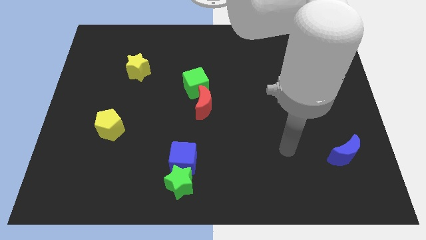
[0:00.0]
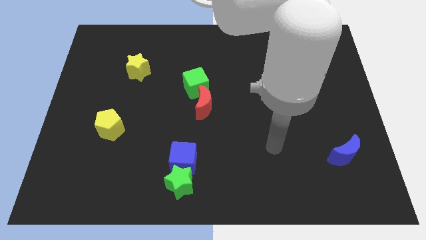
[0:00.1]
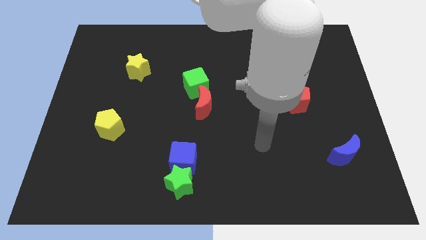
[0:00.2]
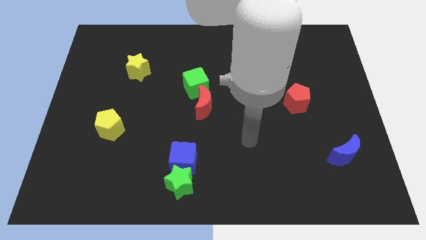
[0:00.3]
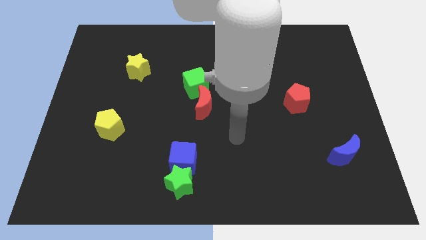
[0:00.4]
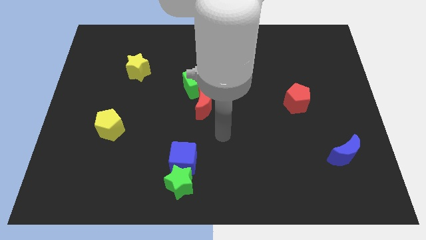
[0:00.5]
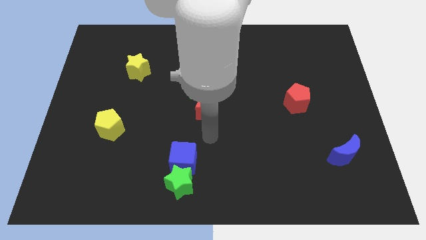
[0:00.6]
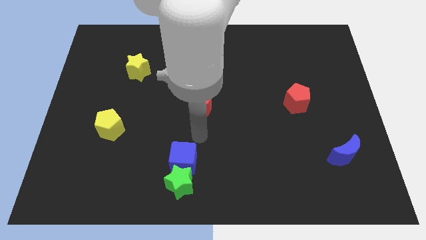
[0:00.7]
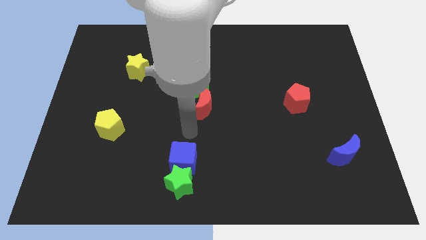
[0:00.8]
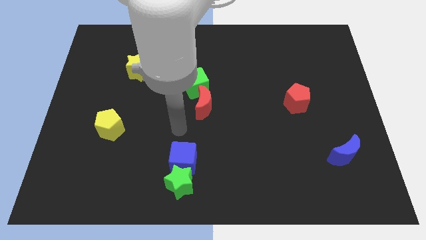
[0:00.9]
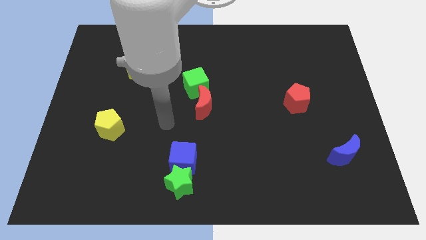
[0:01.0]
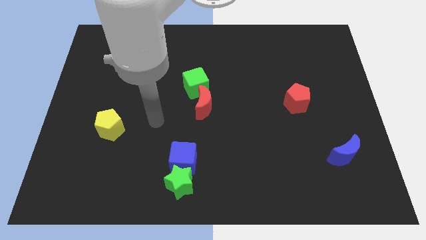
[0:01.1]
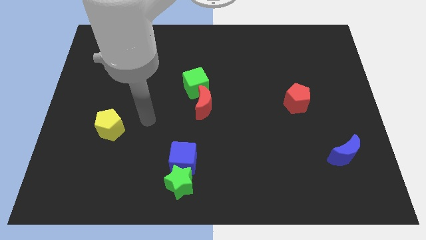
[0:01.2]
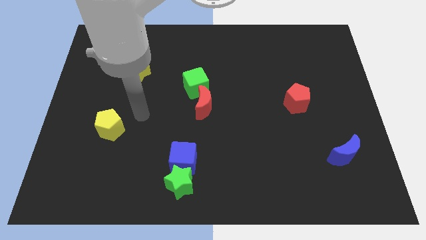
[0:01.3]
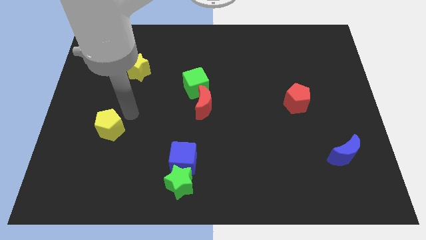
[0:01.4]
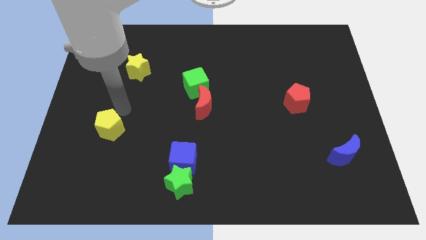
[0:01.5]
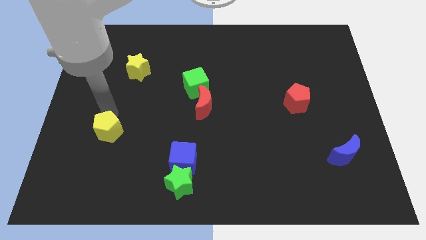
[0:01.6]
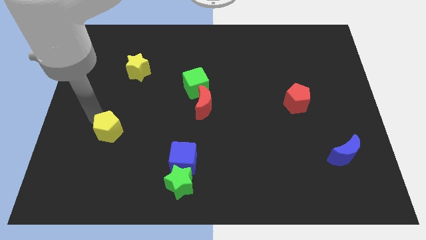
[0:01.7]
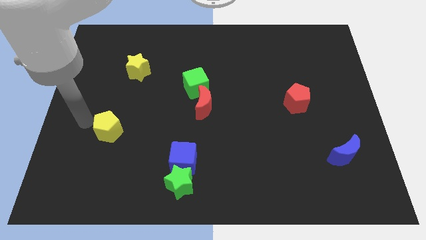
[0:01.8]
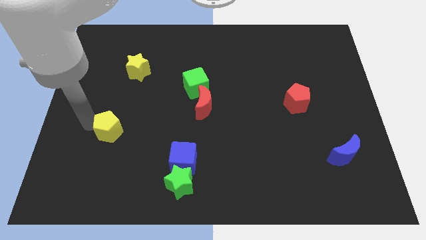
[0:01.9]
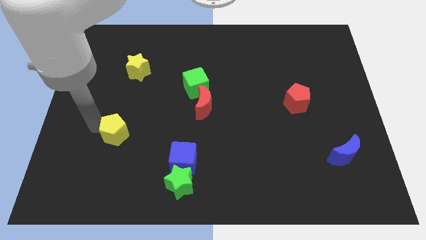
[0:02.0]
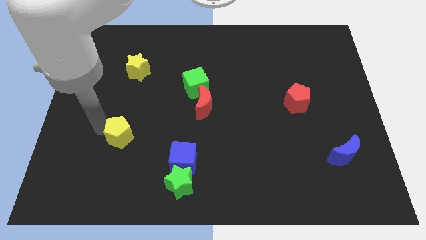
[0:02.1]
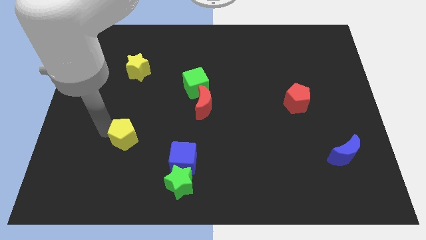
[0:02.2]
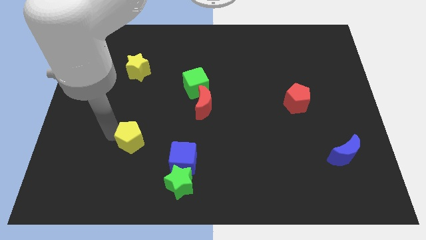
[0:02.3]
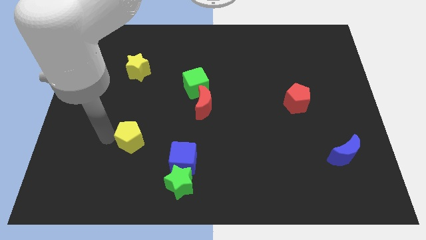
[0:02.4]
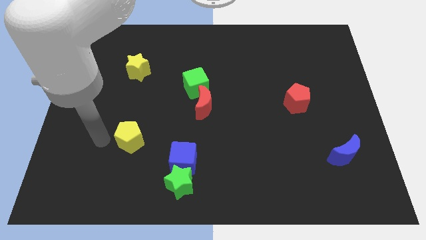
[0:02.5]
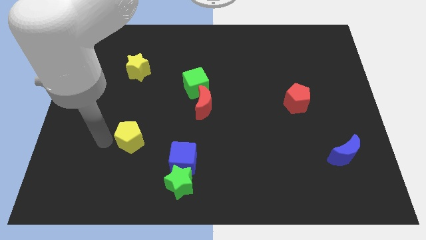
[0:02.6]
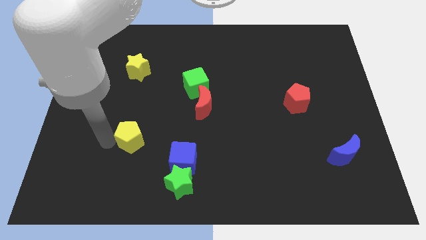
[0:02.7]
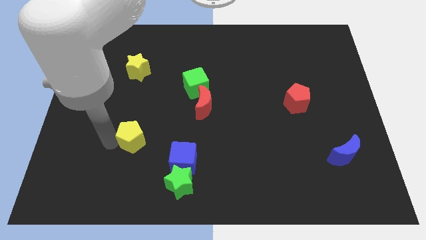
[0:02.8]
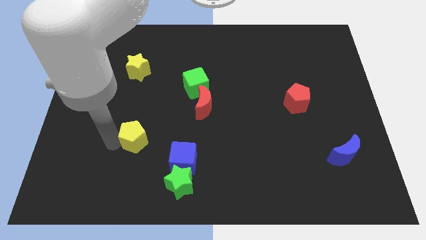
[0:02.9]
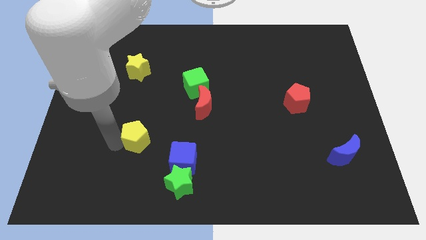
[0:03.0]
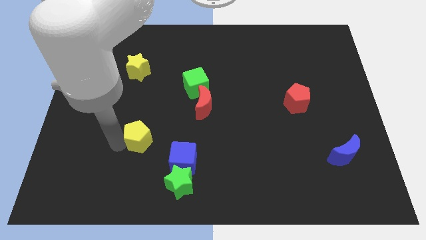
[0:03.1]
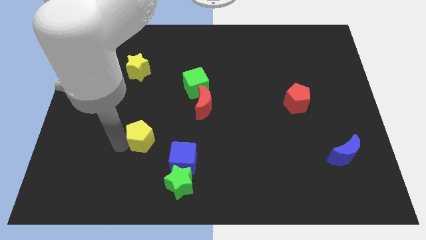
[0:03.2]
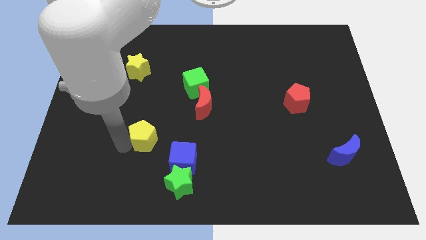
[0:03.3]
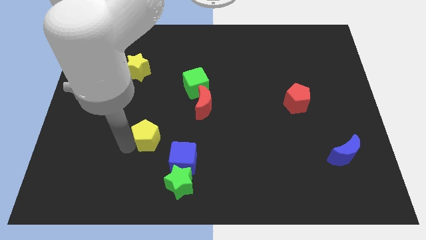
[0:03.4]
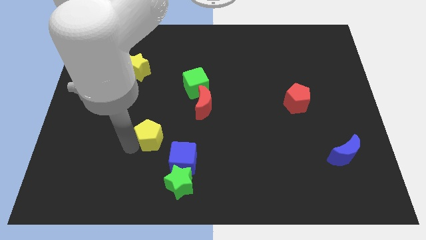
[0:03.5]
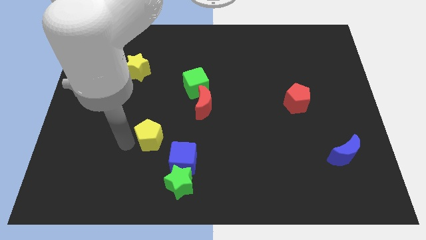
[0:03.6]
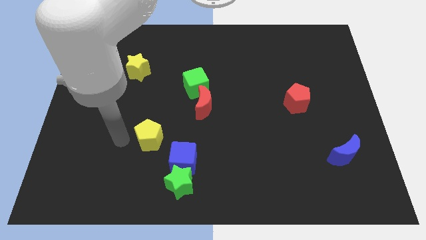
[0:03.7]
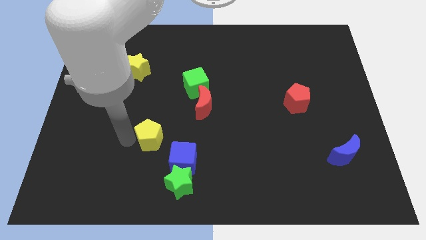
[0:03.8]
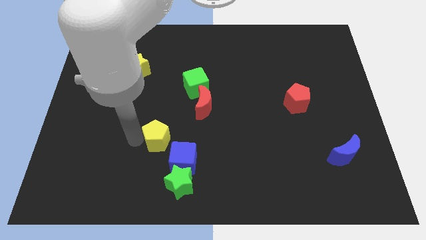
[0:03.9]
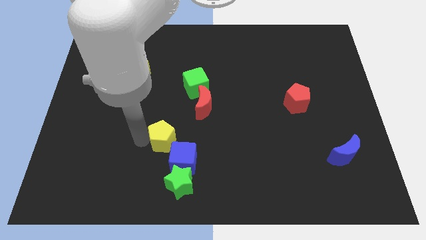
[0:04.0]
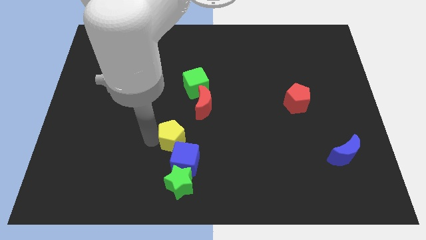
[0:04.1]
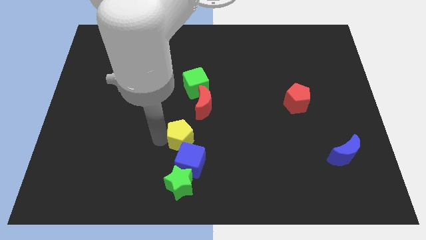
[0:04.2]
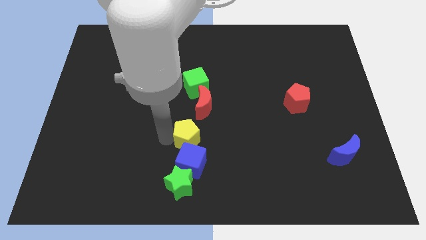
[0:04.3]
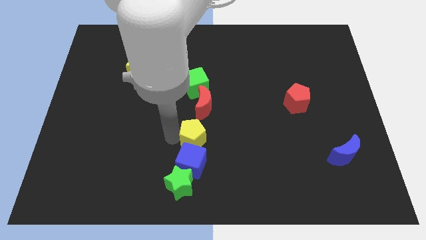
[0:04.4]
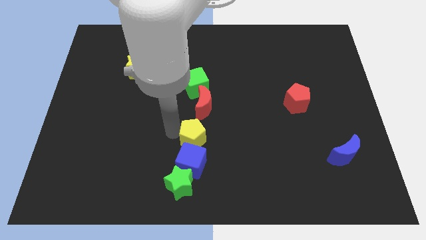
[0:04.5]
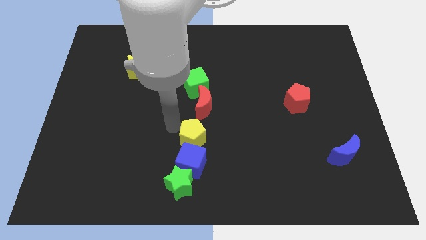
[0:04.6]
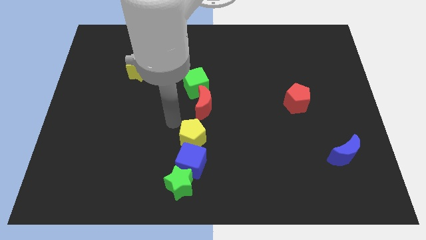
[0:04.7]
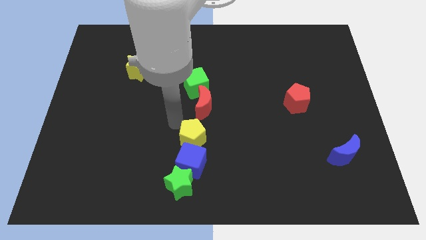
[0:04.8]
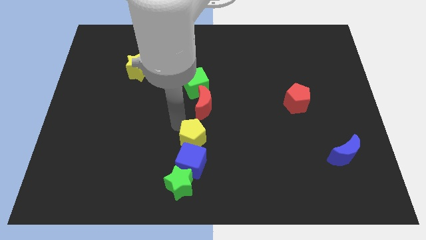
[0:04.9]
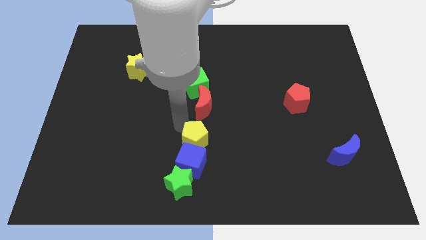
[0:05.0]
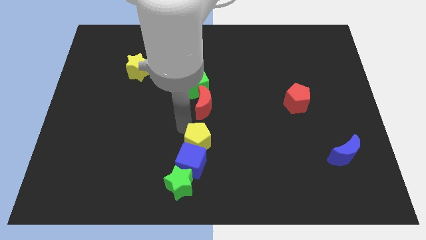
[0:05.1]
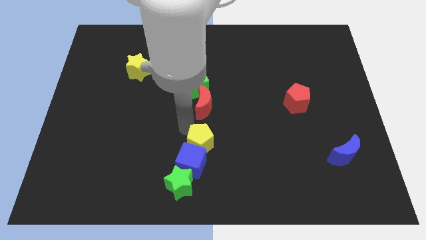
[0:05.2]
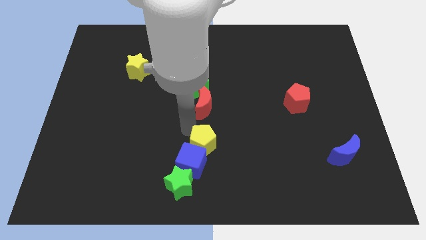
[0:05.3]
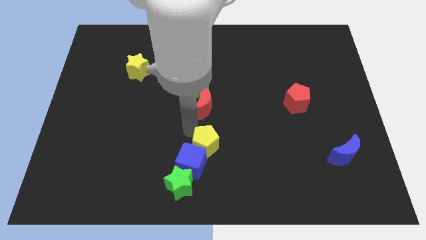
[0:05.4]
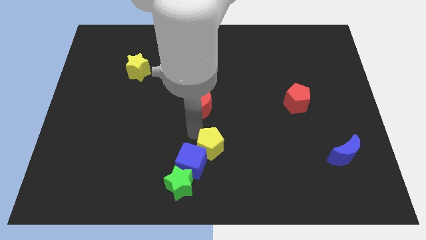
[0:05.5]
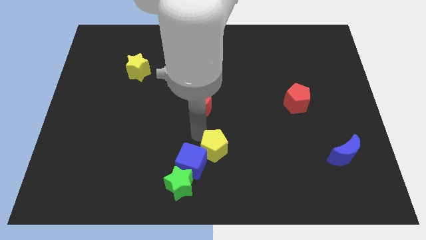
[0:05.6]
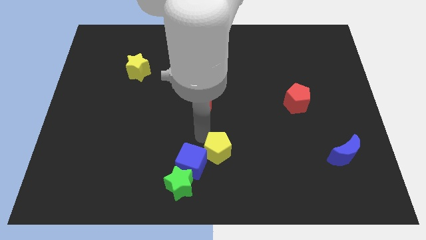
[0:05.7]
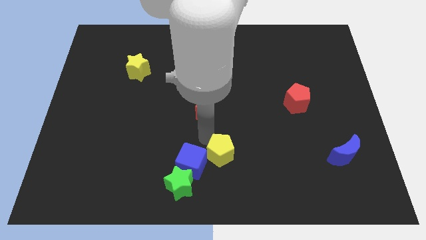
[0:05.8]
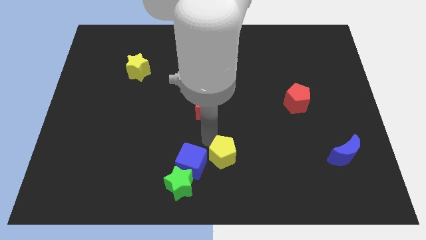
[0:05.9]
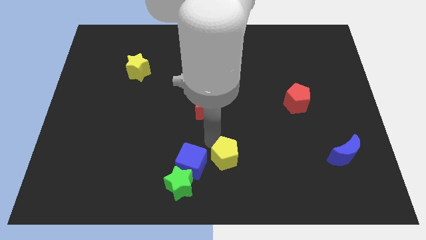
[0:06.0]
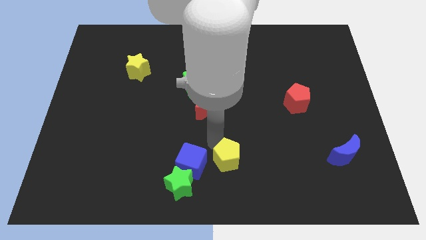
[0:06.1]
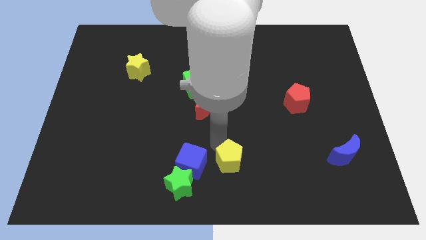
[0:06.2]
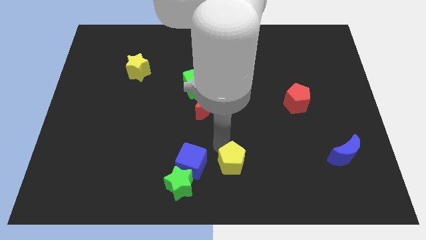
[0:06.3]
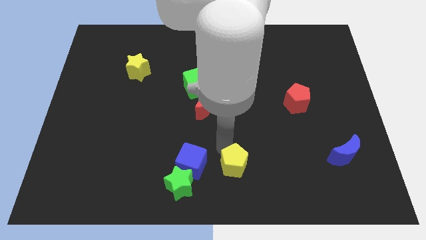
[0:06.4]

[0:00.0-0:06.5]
move the yellow pentagon to the right of the green star

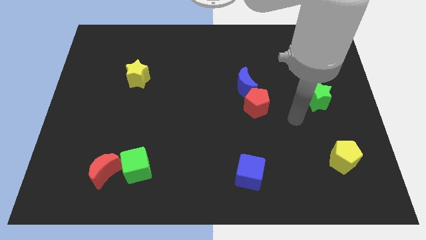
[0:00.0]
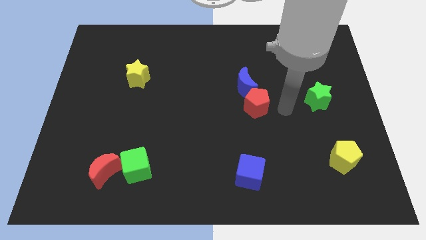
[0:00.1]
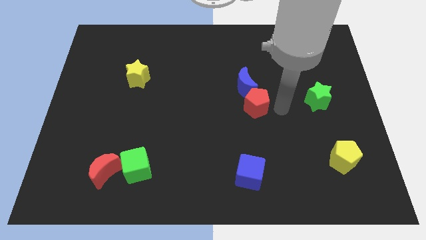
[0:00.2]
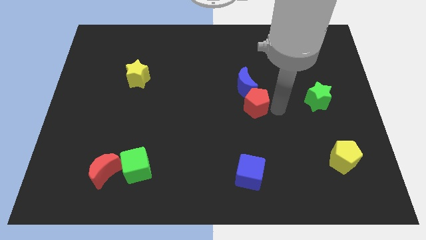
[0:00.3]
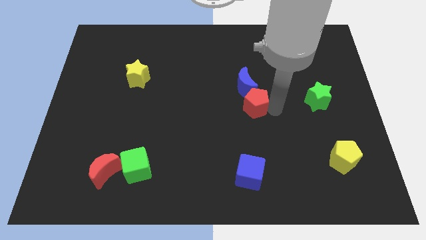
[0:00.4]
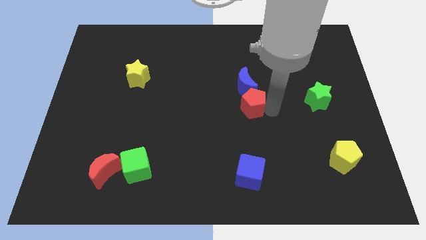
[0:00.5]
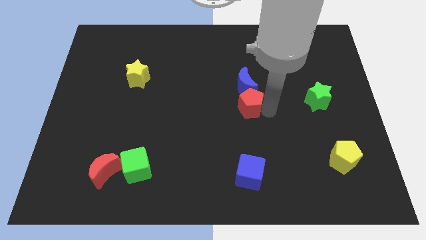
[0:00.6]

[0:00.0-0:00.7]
put the red pentagon diagonally down and to the left of the blue moon
